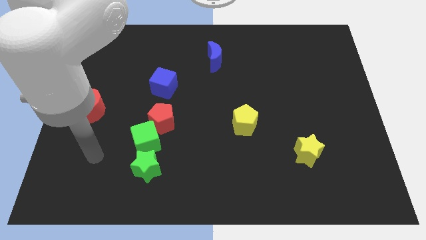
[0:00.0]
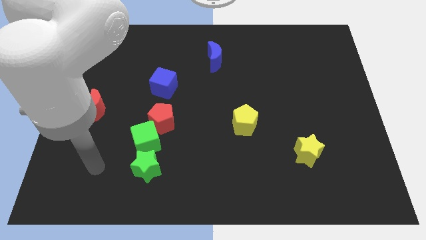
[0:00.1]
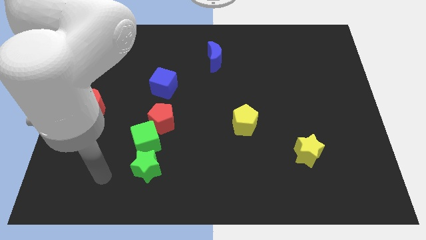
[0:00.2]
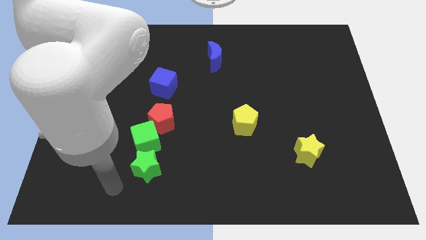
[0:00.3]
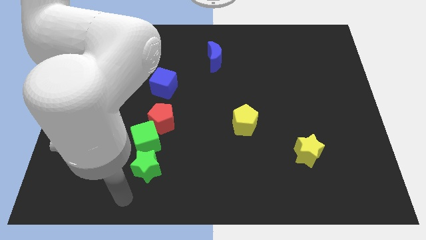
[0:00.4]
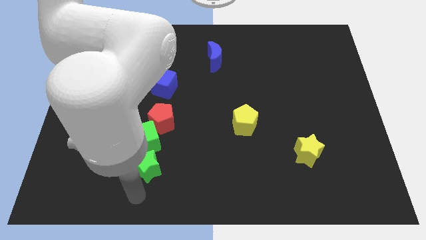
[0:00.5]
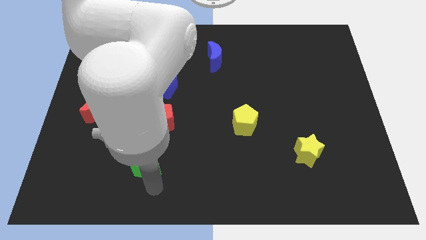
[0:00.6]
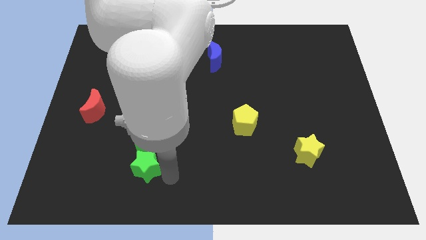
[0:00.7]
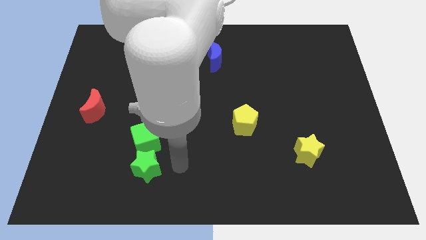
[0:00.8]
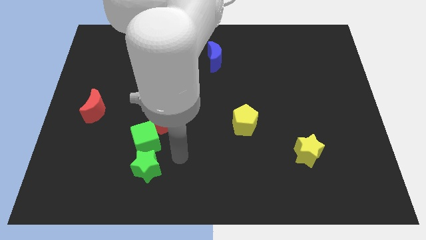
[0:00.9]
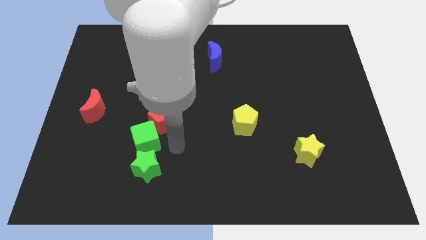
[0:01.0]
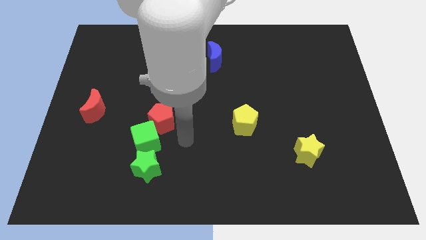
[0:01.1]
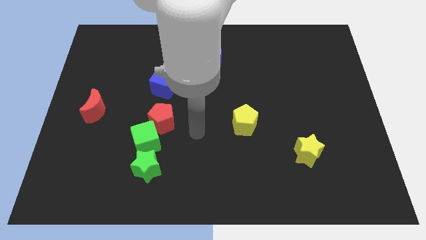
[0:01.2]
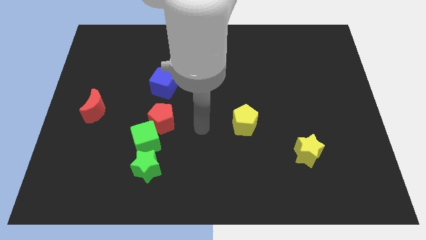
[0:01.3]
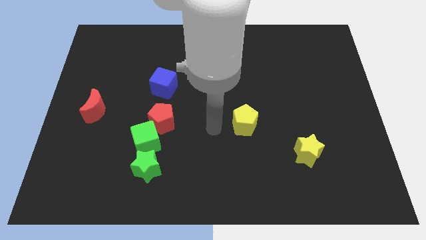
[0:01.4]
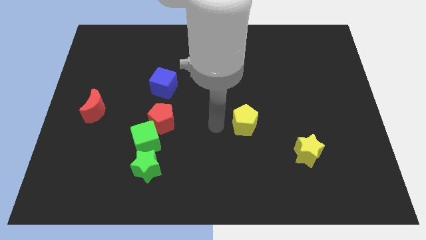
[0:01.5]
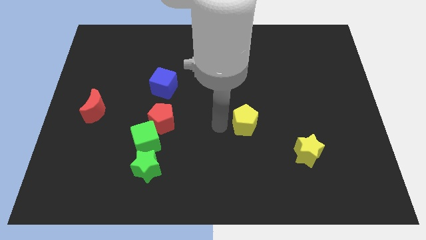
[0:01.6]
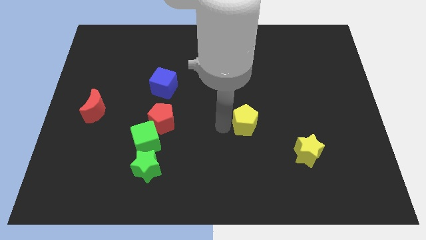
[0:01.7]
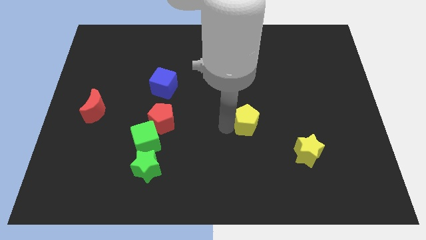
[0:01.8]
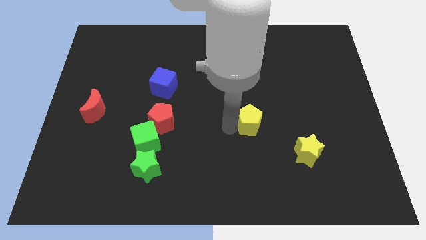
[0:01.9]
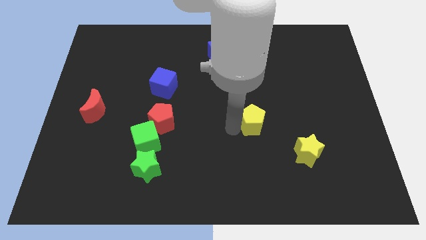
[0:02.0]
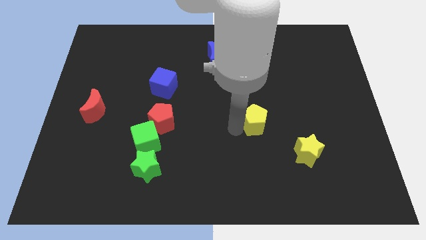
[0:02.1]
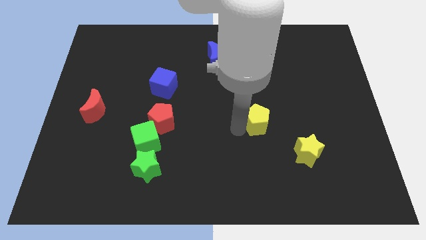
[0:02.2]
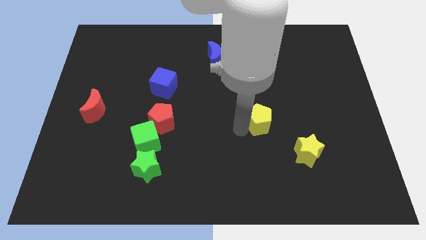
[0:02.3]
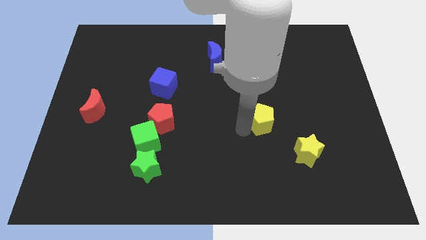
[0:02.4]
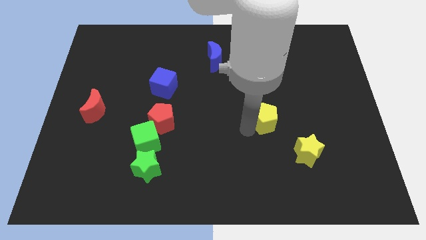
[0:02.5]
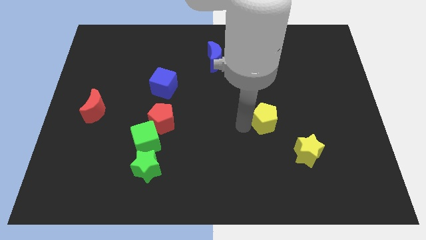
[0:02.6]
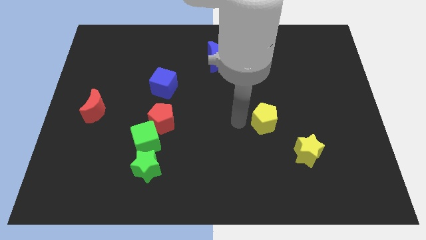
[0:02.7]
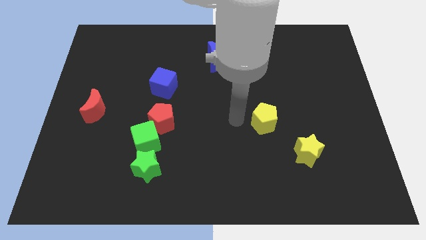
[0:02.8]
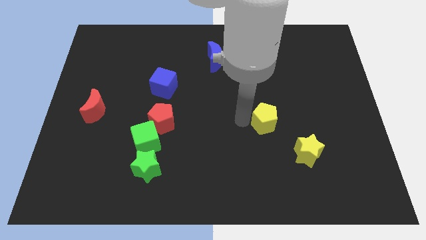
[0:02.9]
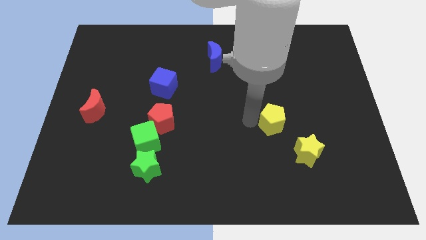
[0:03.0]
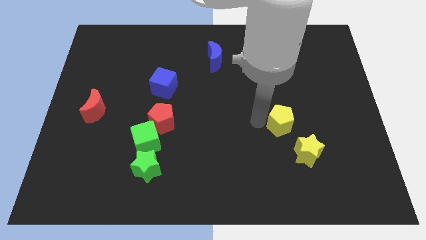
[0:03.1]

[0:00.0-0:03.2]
move the yellow pentagon to the right slightly

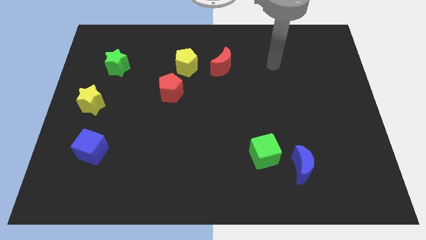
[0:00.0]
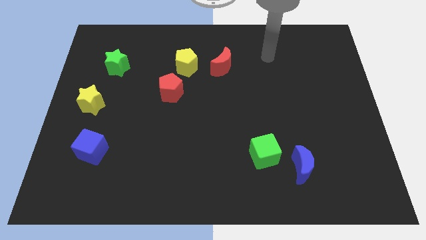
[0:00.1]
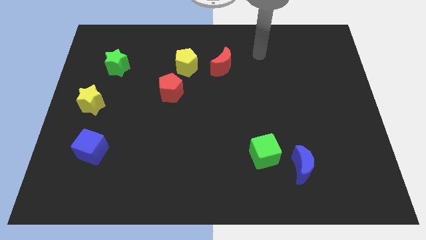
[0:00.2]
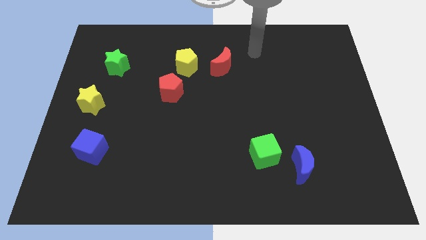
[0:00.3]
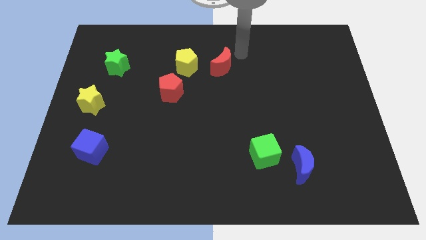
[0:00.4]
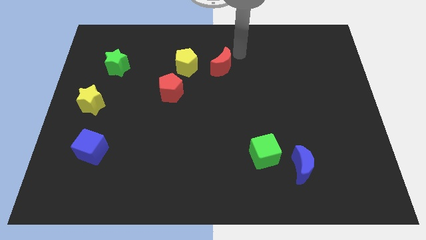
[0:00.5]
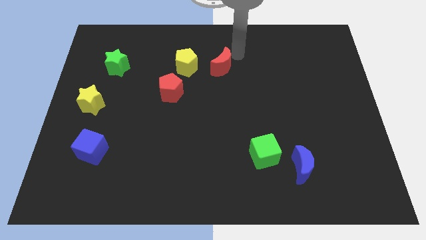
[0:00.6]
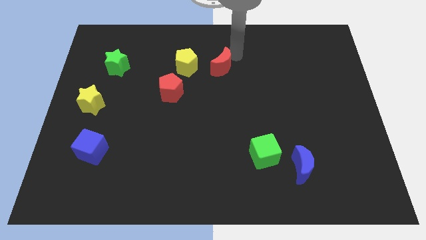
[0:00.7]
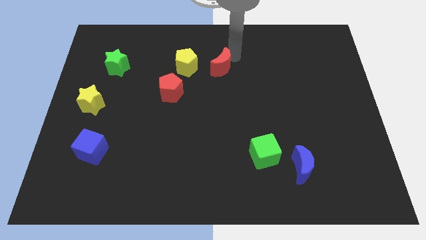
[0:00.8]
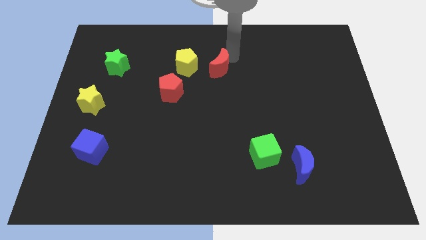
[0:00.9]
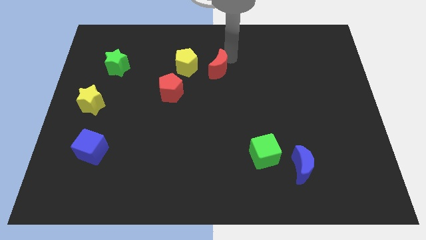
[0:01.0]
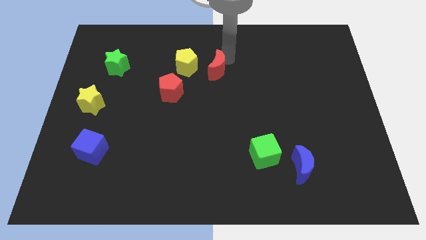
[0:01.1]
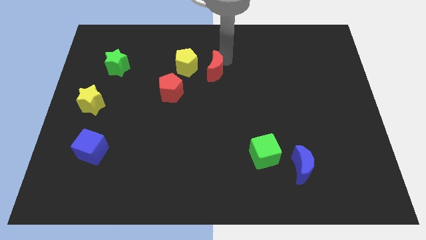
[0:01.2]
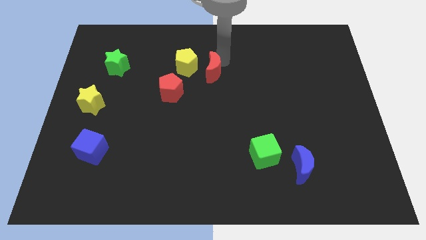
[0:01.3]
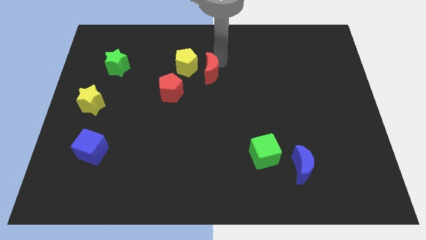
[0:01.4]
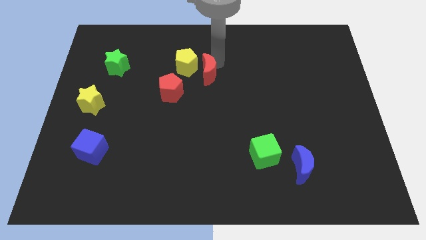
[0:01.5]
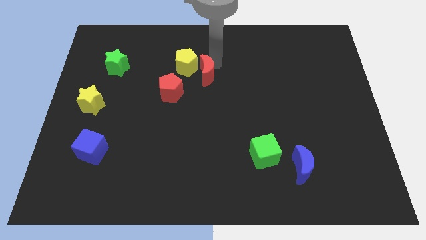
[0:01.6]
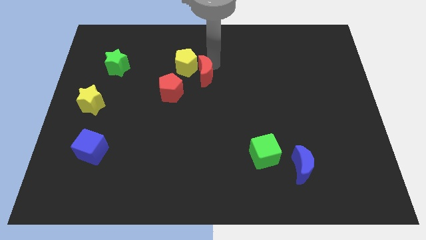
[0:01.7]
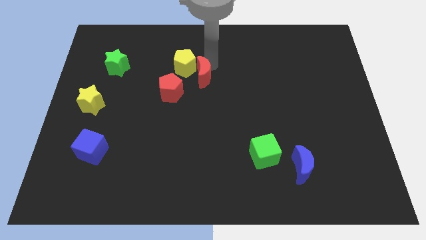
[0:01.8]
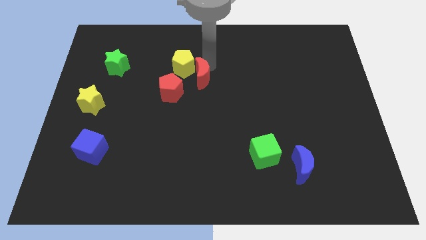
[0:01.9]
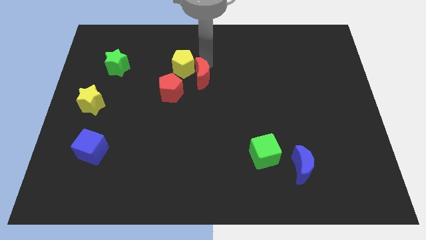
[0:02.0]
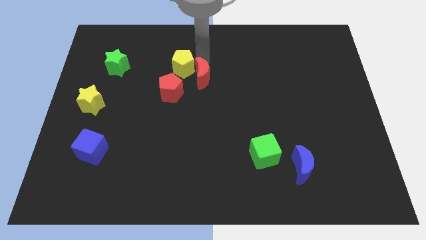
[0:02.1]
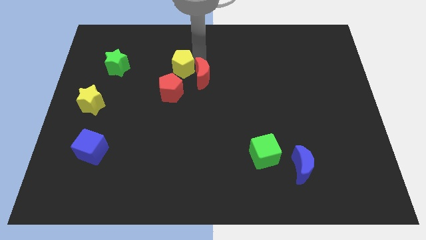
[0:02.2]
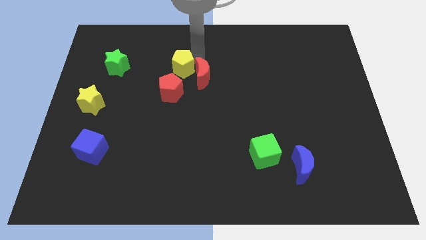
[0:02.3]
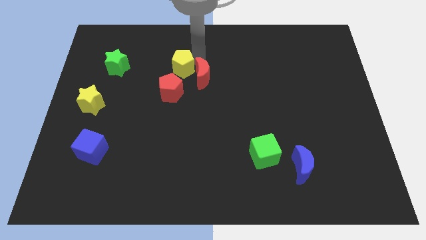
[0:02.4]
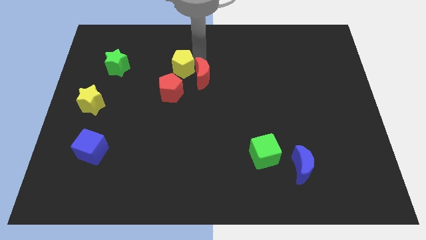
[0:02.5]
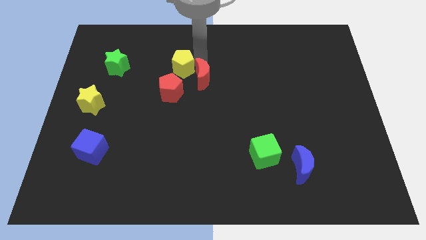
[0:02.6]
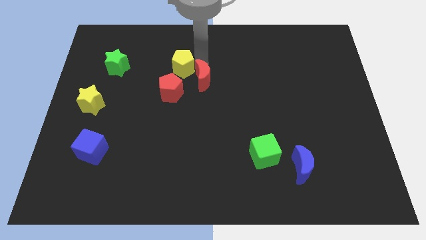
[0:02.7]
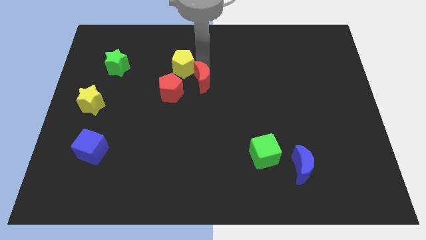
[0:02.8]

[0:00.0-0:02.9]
slightly push the red moon down and left diagonally

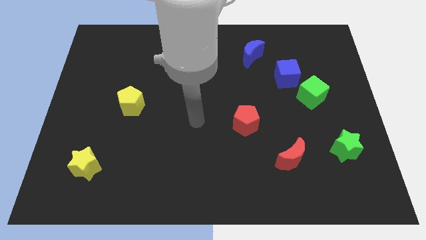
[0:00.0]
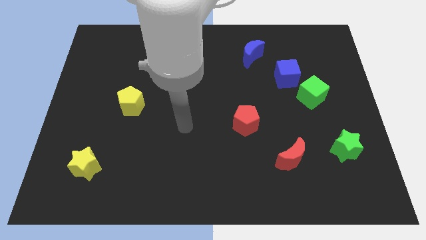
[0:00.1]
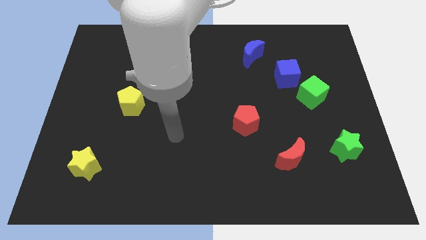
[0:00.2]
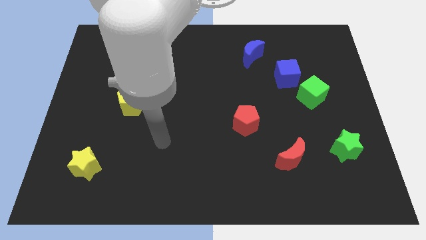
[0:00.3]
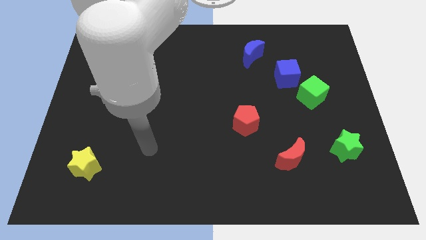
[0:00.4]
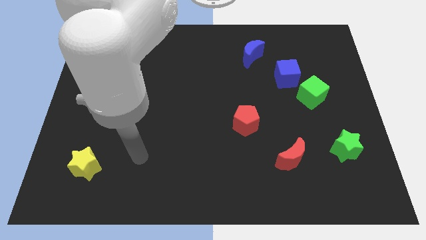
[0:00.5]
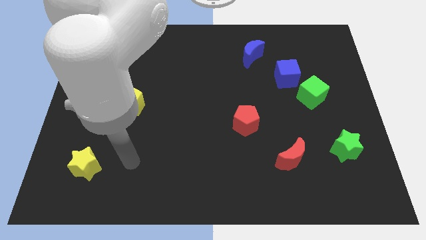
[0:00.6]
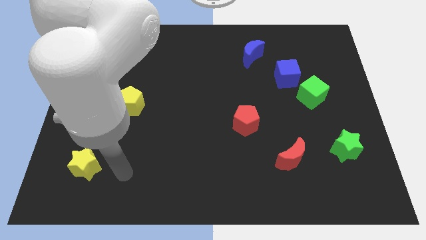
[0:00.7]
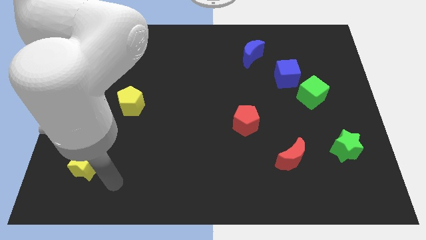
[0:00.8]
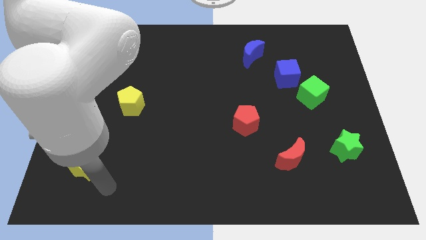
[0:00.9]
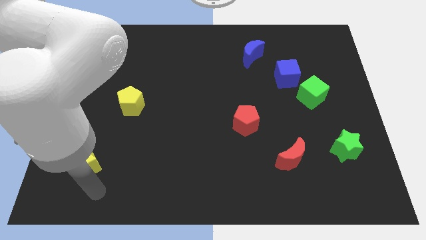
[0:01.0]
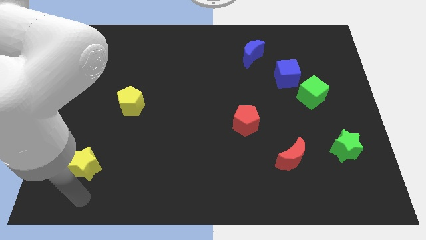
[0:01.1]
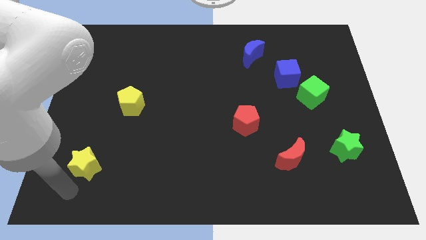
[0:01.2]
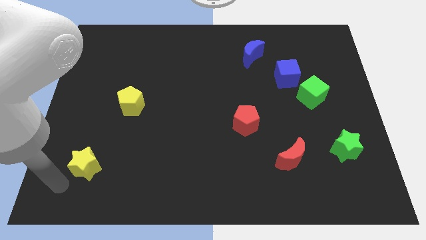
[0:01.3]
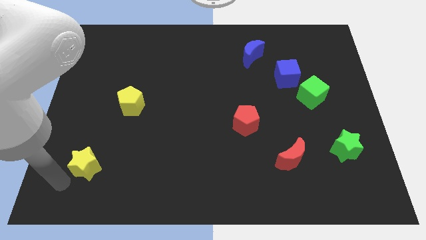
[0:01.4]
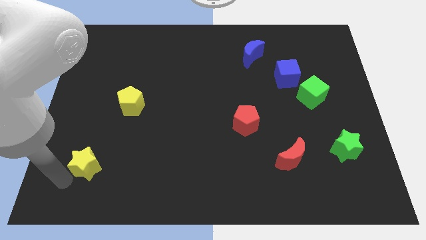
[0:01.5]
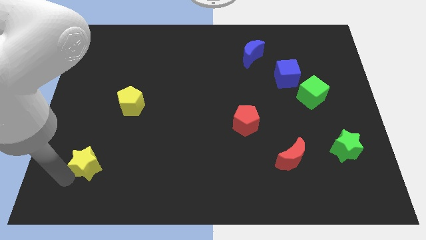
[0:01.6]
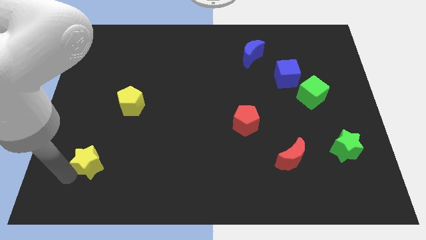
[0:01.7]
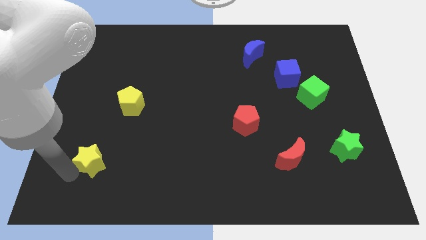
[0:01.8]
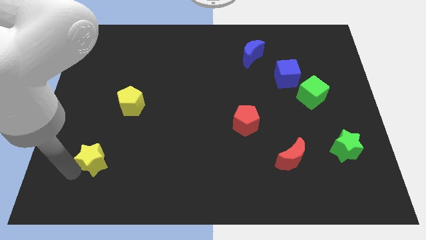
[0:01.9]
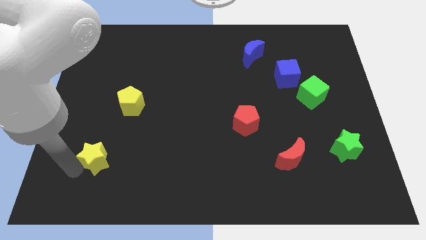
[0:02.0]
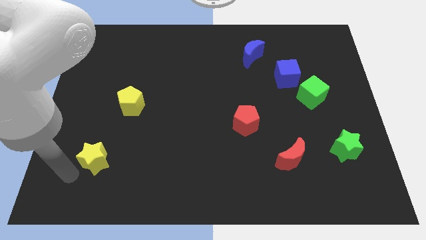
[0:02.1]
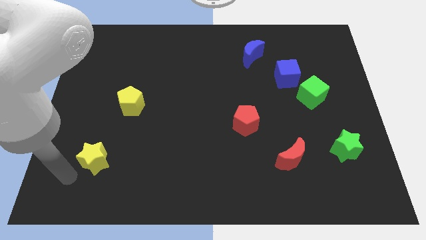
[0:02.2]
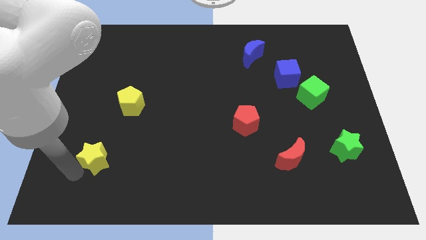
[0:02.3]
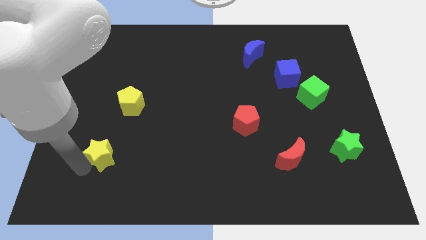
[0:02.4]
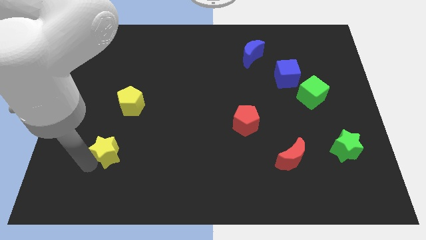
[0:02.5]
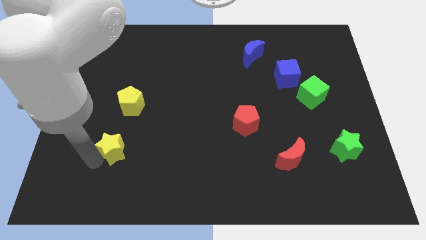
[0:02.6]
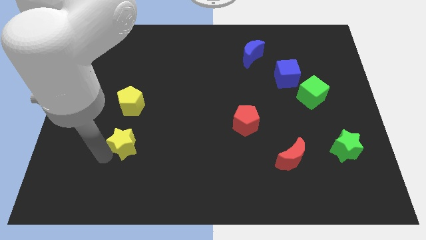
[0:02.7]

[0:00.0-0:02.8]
slightly move the yellow star up and to the right
